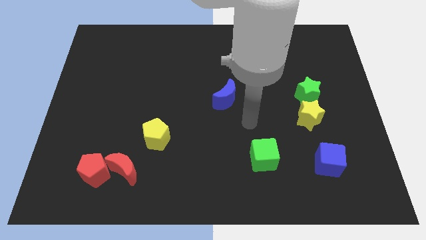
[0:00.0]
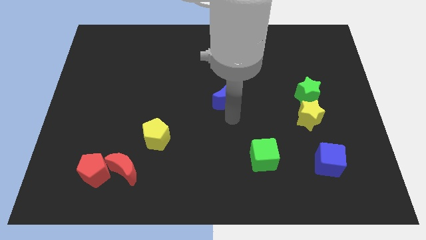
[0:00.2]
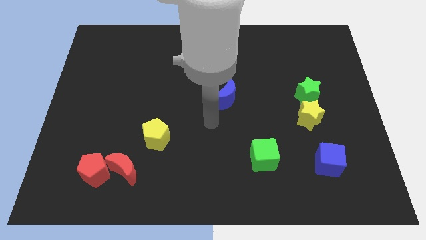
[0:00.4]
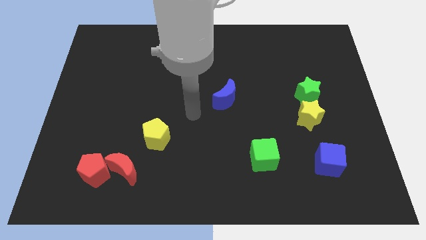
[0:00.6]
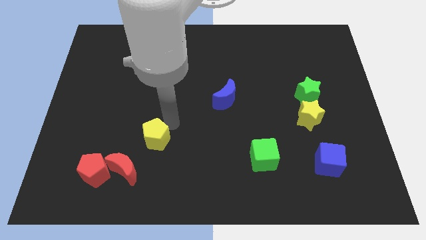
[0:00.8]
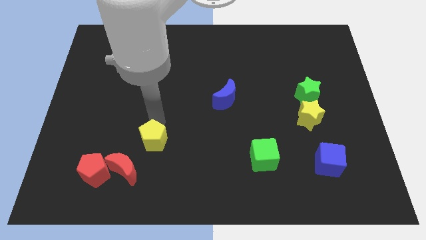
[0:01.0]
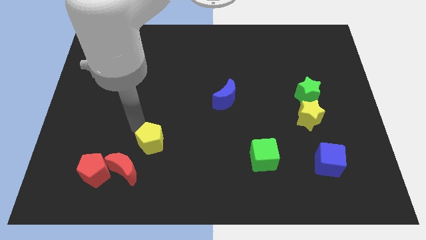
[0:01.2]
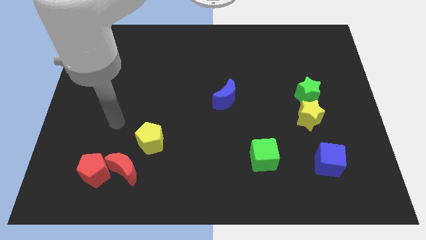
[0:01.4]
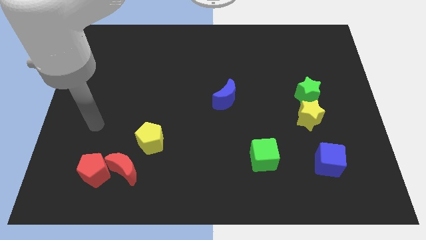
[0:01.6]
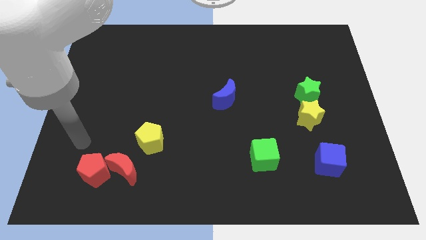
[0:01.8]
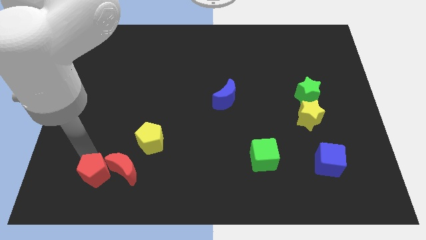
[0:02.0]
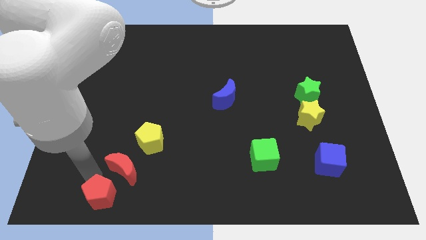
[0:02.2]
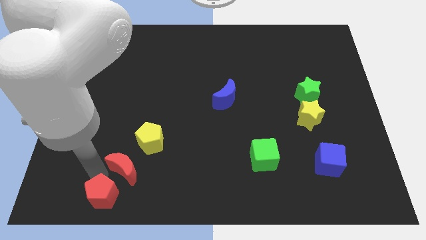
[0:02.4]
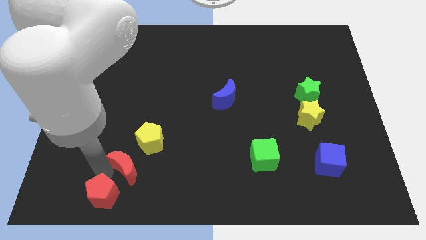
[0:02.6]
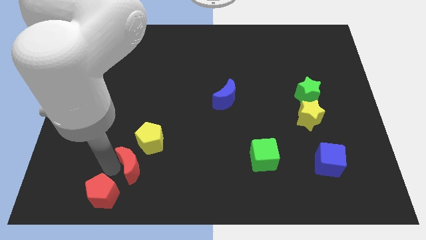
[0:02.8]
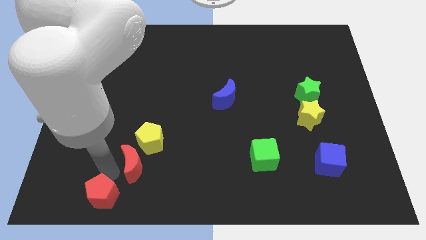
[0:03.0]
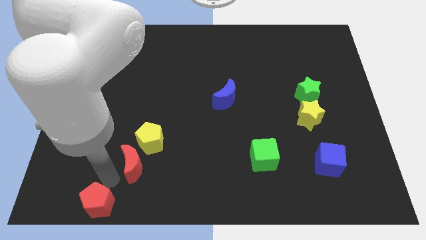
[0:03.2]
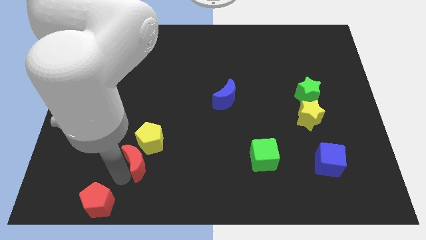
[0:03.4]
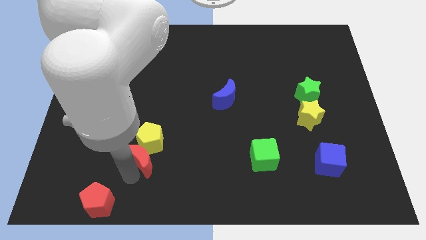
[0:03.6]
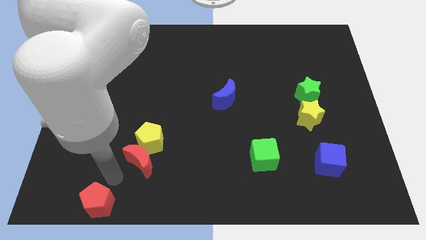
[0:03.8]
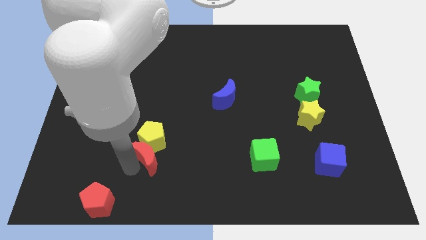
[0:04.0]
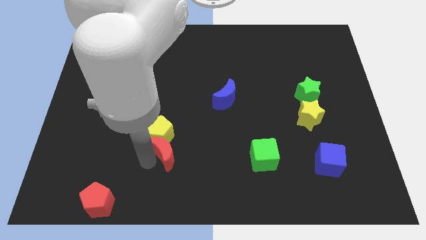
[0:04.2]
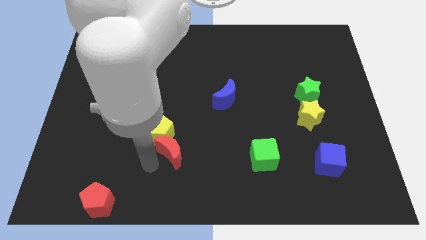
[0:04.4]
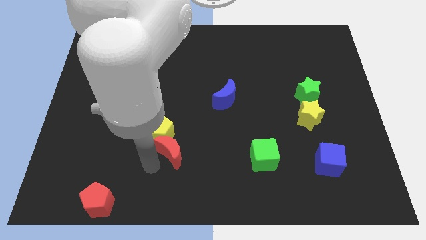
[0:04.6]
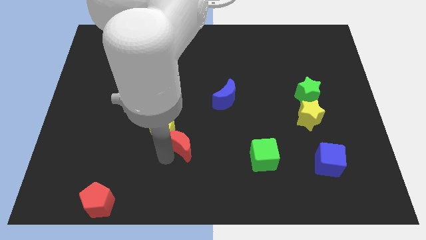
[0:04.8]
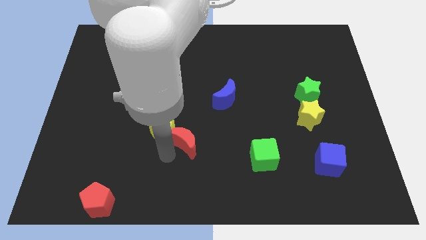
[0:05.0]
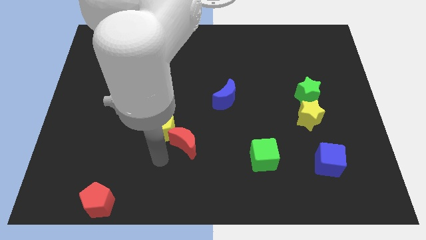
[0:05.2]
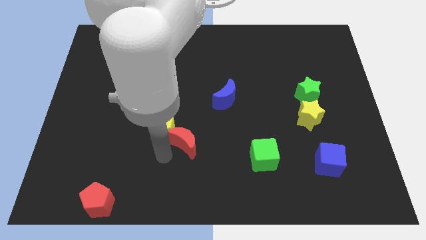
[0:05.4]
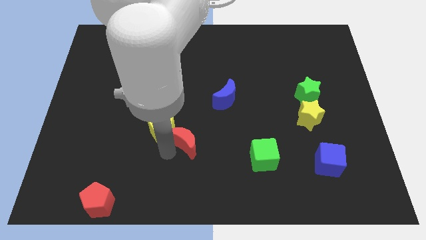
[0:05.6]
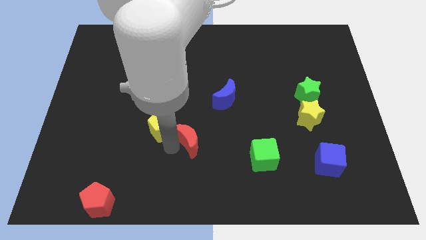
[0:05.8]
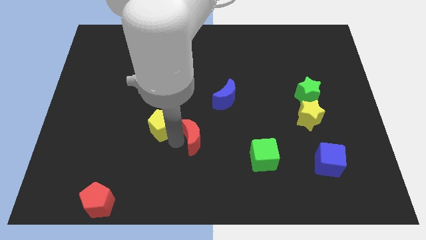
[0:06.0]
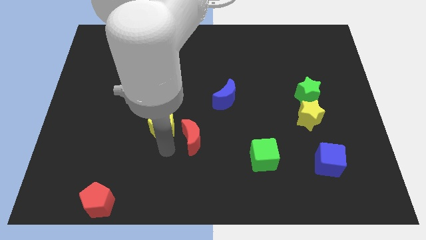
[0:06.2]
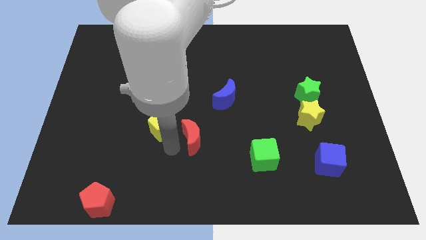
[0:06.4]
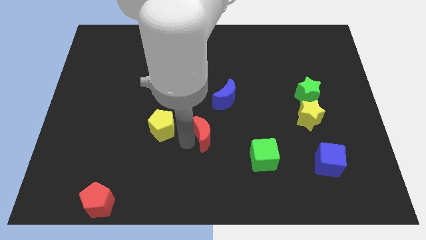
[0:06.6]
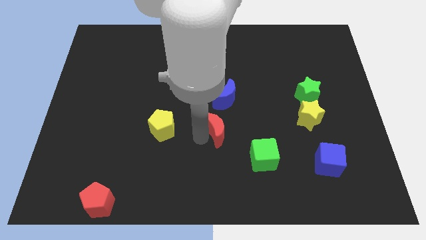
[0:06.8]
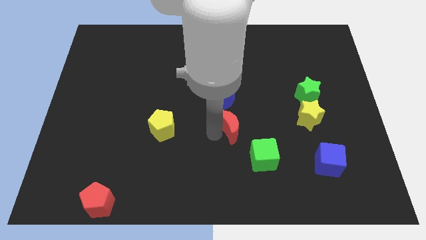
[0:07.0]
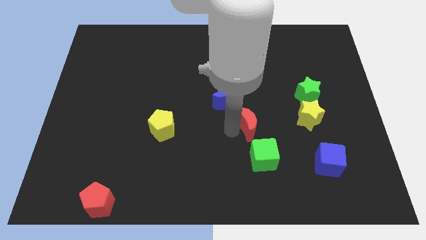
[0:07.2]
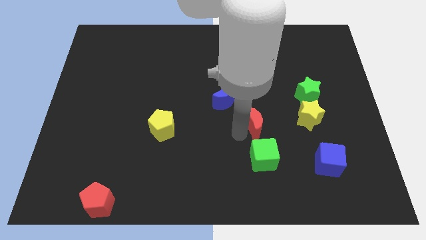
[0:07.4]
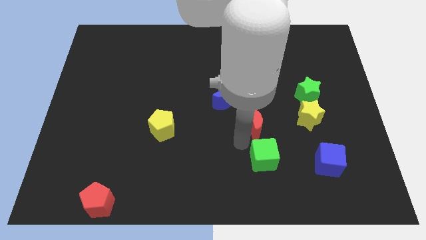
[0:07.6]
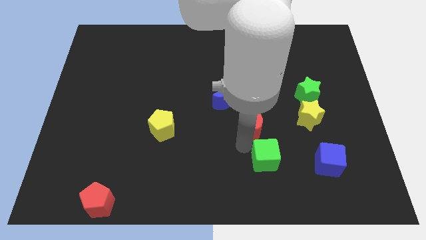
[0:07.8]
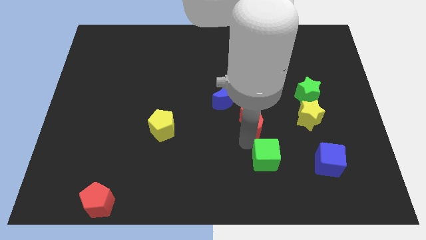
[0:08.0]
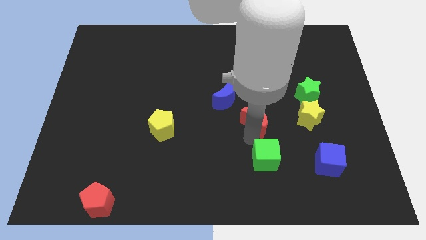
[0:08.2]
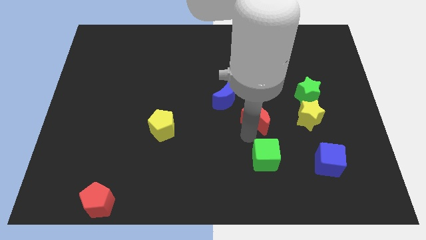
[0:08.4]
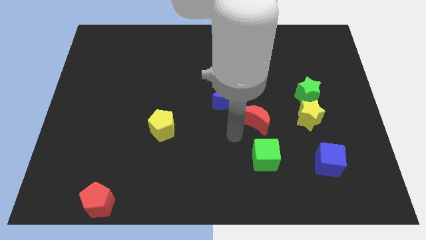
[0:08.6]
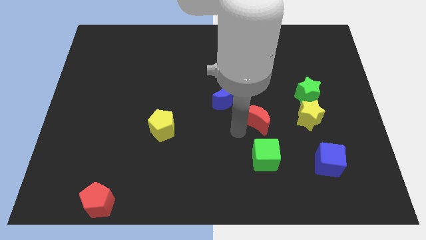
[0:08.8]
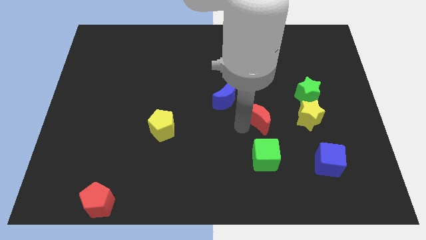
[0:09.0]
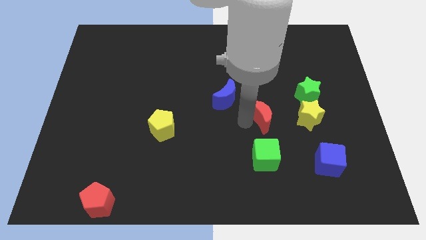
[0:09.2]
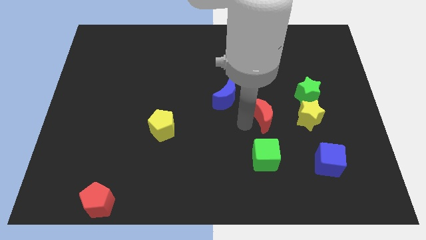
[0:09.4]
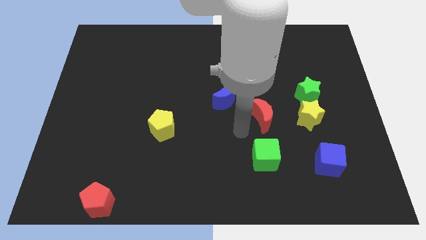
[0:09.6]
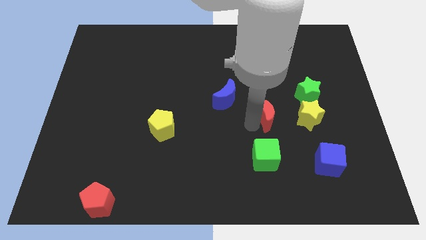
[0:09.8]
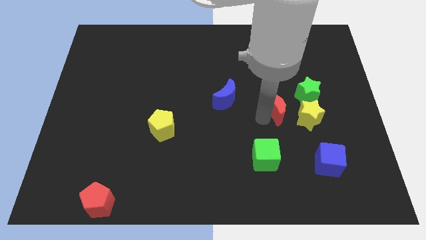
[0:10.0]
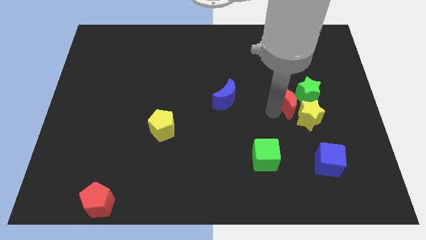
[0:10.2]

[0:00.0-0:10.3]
put the red moon towards the green star

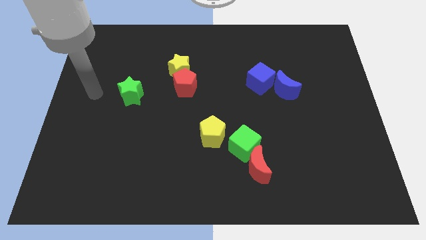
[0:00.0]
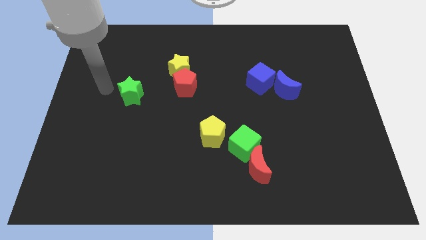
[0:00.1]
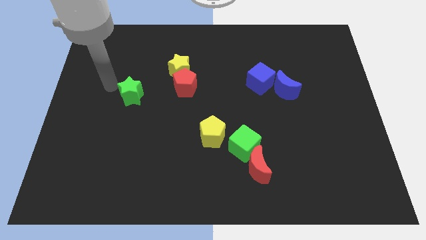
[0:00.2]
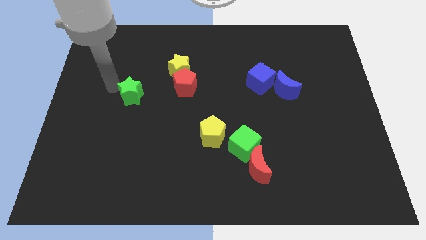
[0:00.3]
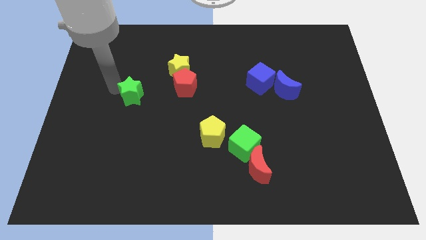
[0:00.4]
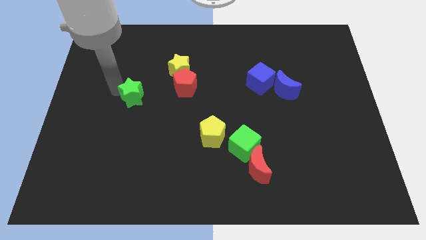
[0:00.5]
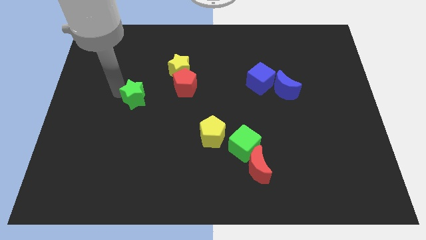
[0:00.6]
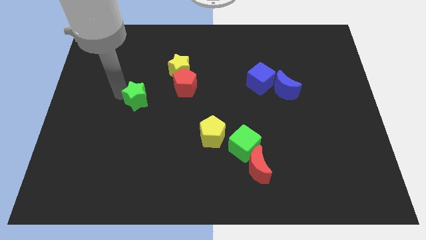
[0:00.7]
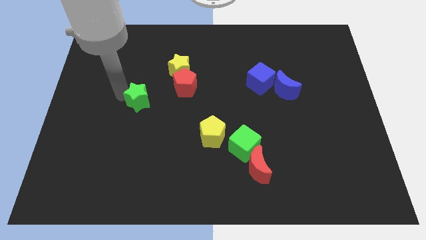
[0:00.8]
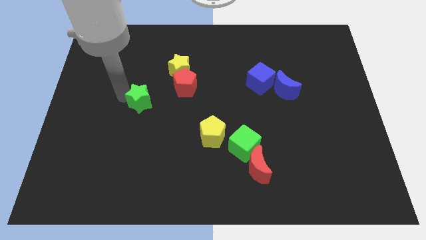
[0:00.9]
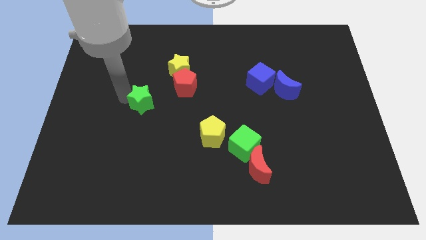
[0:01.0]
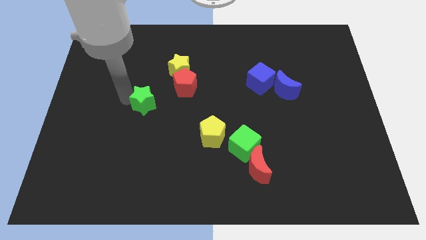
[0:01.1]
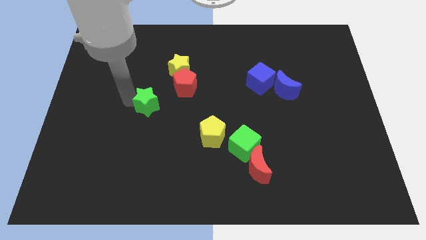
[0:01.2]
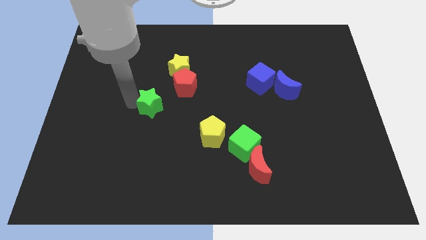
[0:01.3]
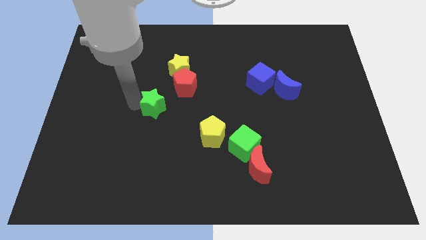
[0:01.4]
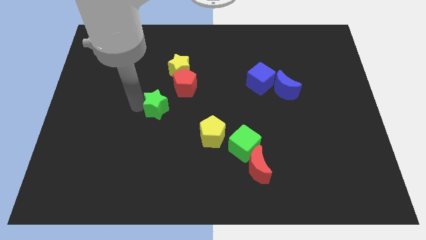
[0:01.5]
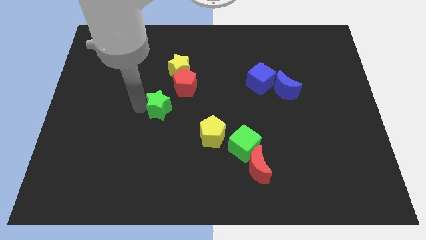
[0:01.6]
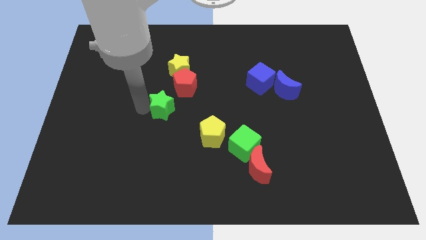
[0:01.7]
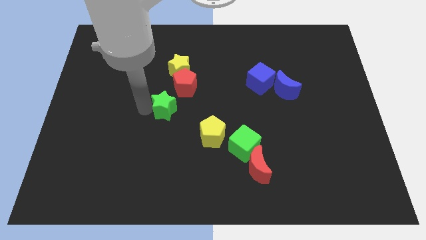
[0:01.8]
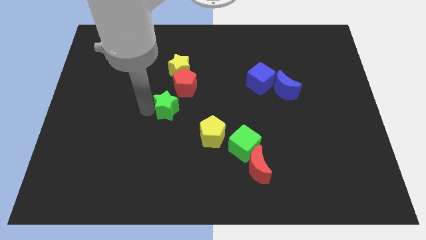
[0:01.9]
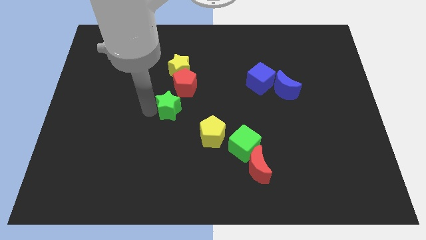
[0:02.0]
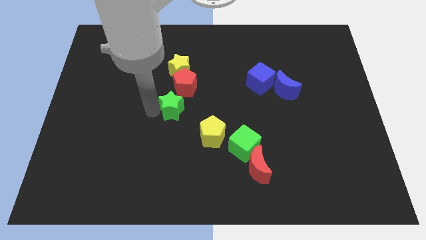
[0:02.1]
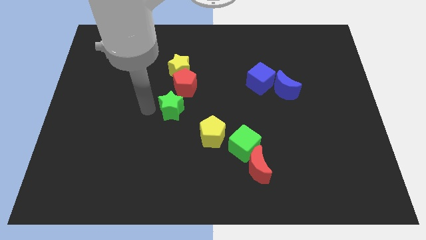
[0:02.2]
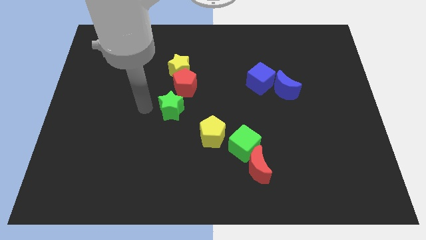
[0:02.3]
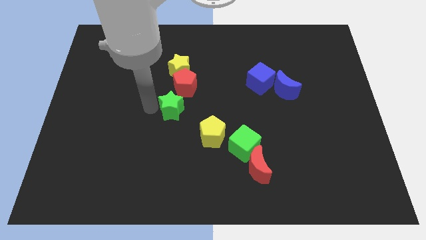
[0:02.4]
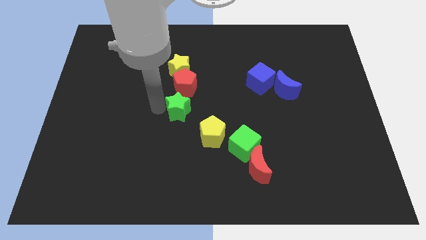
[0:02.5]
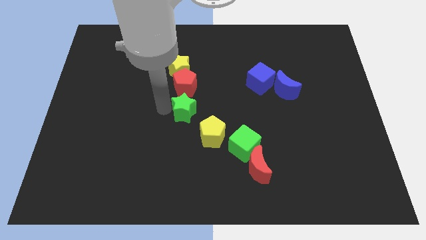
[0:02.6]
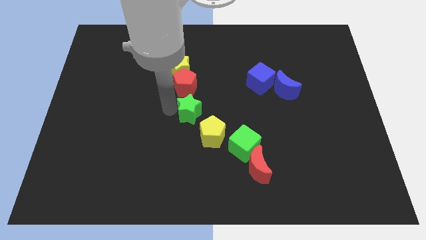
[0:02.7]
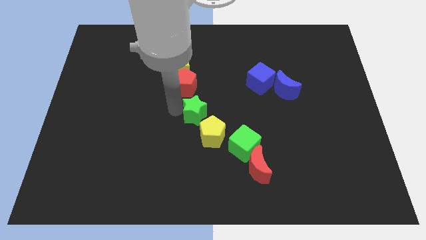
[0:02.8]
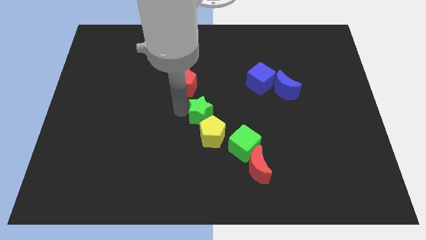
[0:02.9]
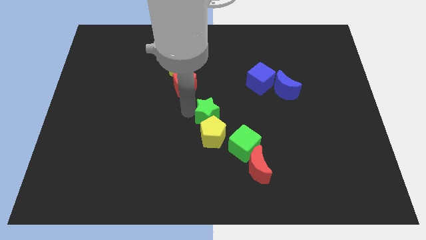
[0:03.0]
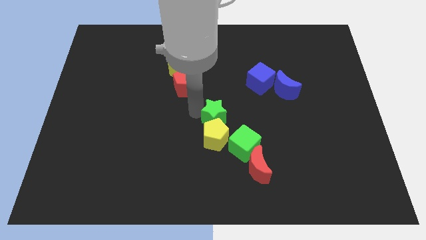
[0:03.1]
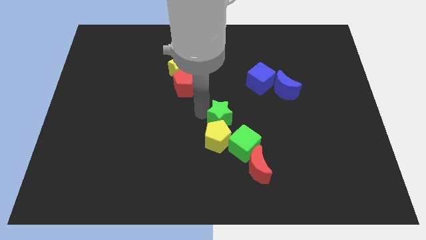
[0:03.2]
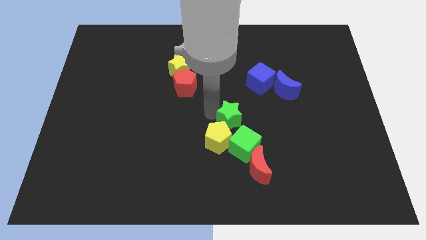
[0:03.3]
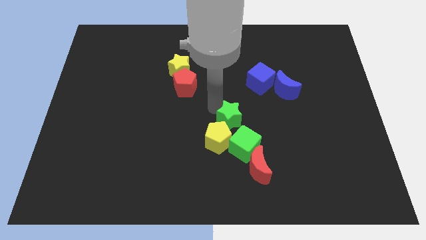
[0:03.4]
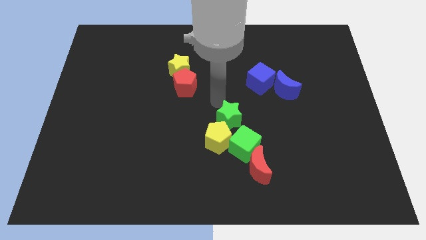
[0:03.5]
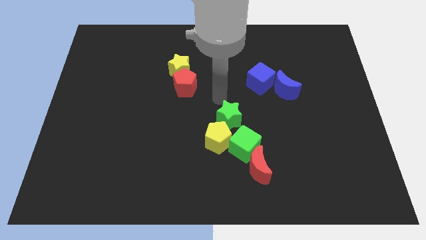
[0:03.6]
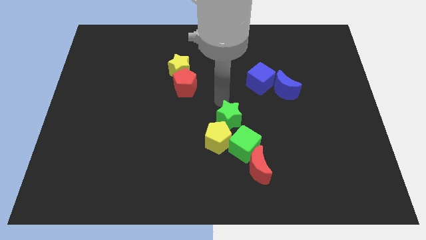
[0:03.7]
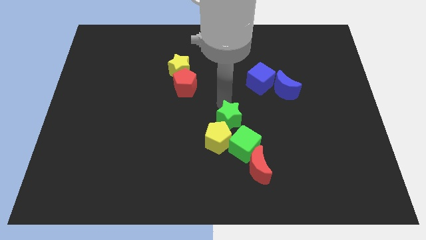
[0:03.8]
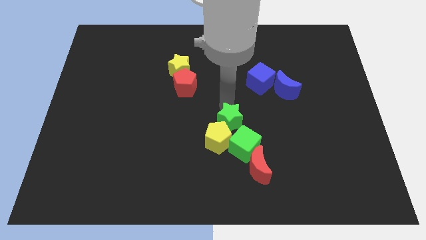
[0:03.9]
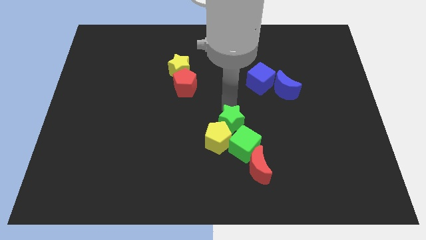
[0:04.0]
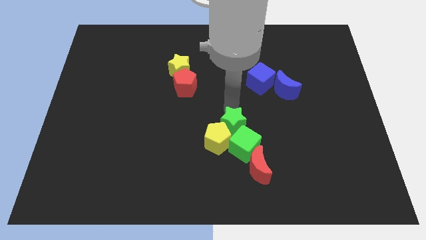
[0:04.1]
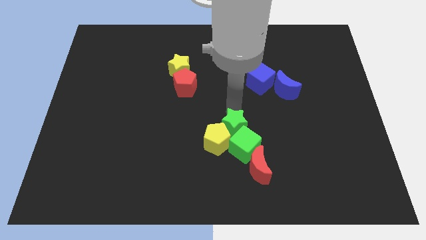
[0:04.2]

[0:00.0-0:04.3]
put the green star to the green cube
